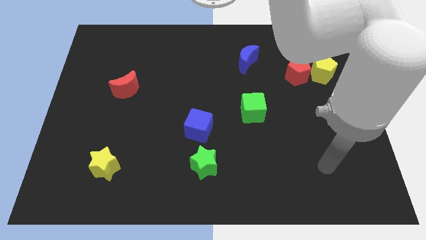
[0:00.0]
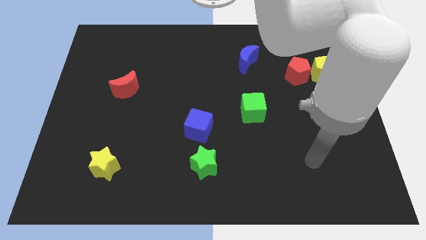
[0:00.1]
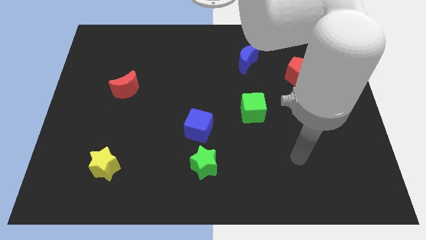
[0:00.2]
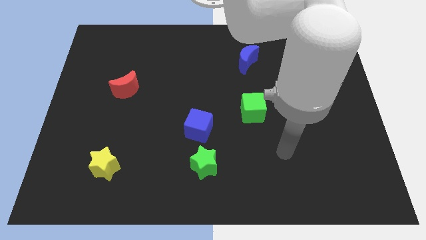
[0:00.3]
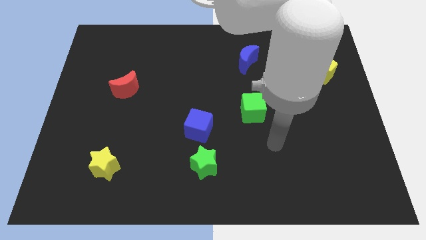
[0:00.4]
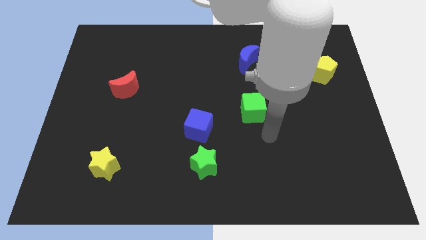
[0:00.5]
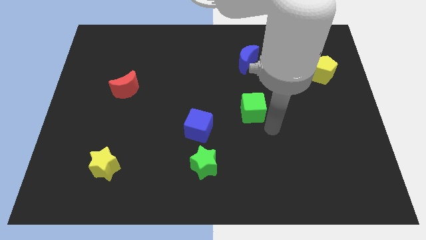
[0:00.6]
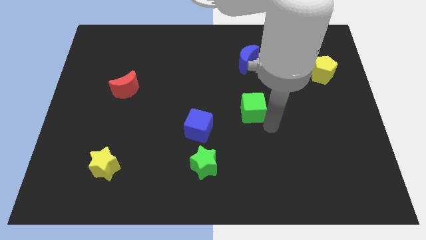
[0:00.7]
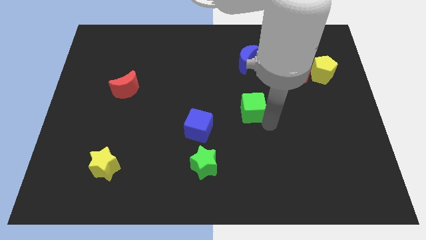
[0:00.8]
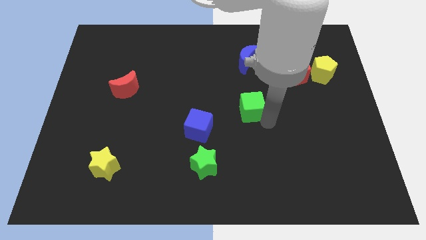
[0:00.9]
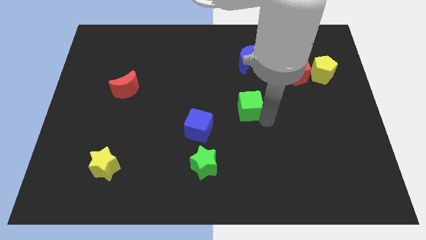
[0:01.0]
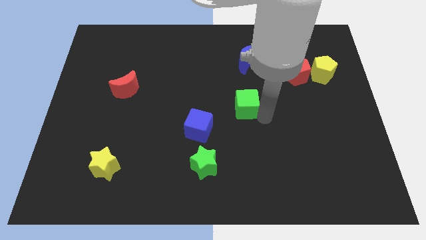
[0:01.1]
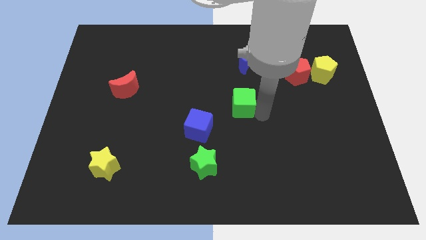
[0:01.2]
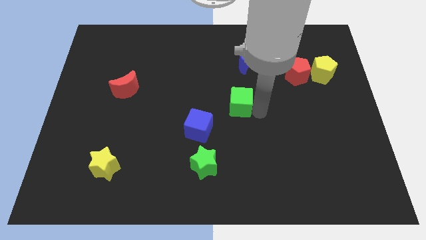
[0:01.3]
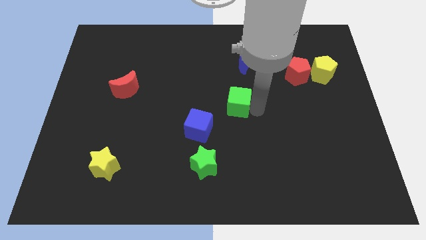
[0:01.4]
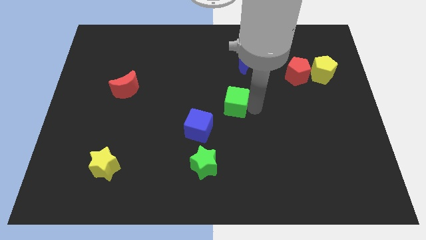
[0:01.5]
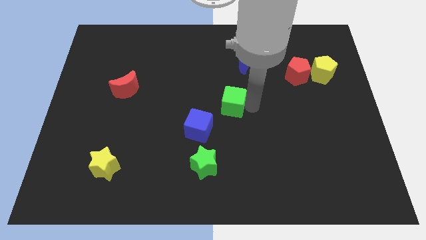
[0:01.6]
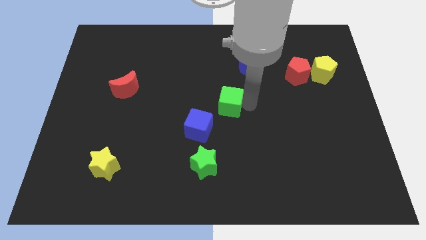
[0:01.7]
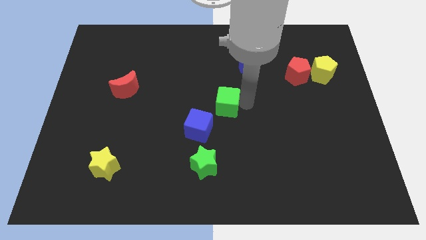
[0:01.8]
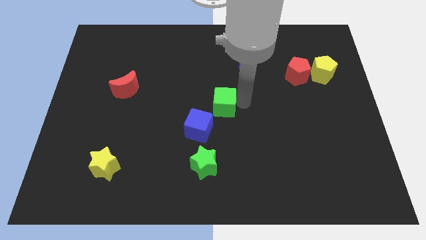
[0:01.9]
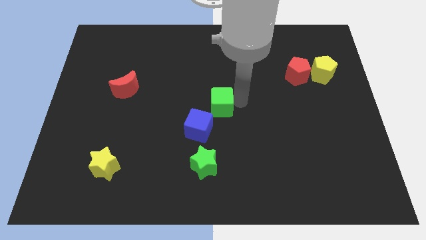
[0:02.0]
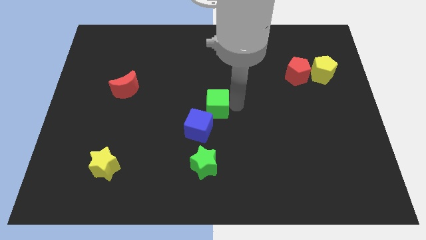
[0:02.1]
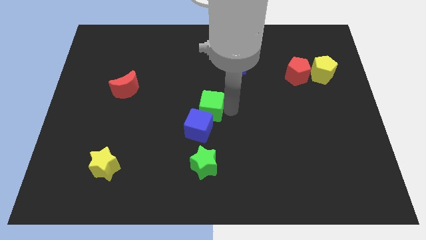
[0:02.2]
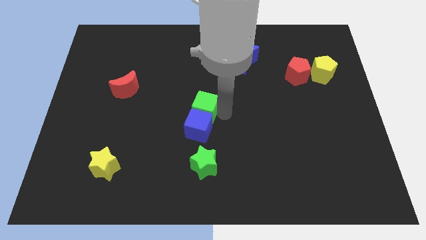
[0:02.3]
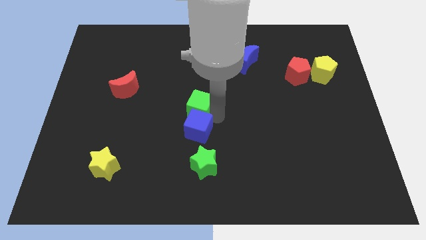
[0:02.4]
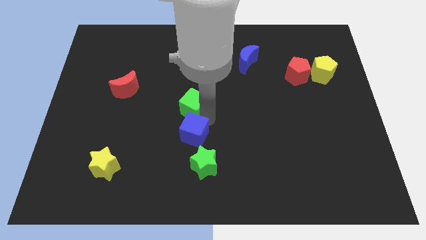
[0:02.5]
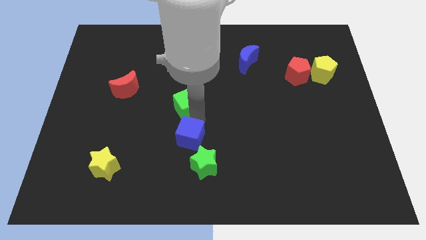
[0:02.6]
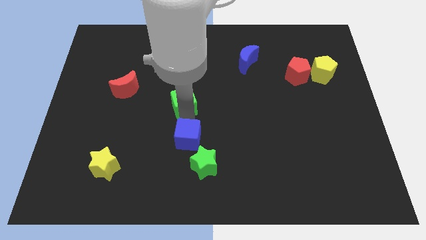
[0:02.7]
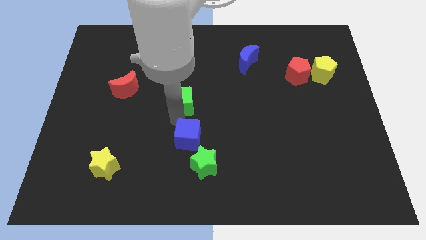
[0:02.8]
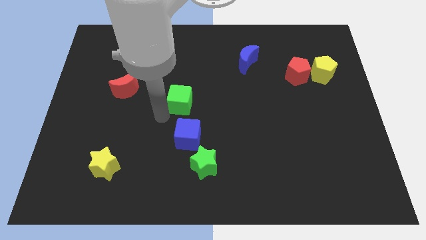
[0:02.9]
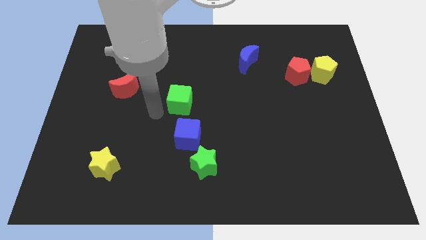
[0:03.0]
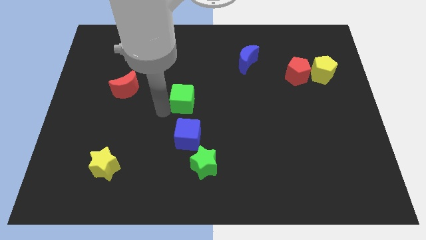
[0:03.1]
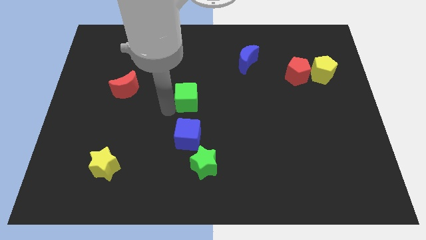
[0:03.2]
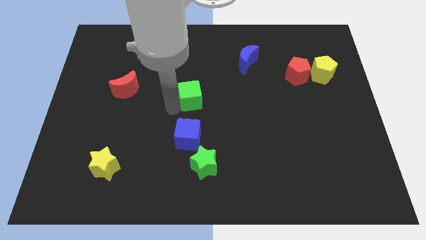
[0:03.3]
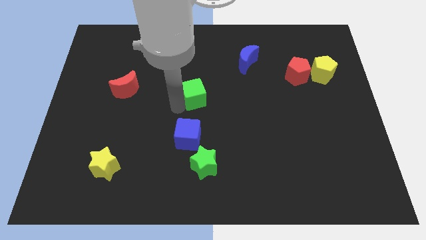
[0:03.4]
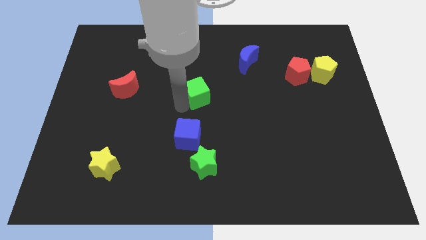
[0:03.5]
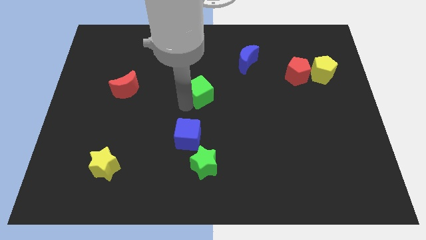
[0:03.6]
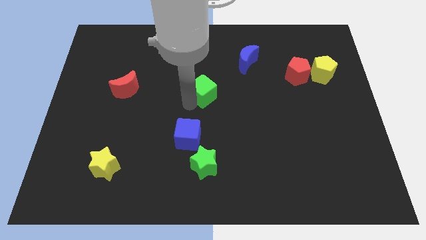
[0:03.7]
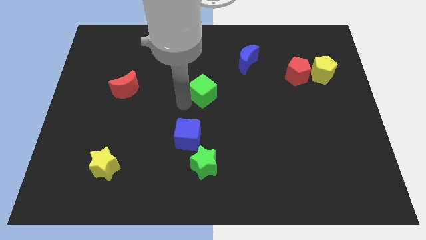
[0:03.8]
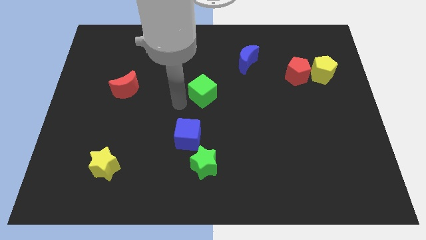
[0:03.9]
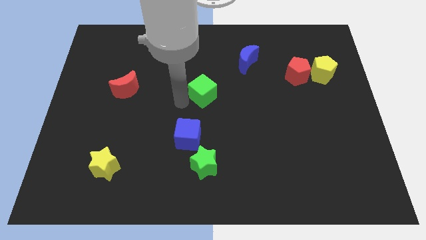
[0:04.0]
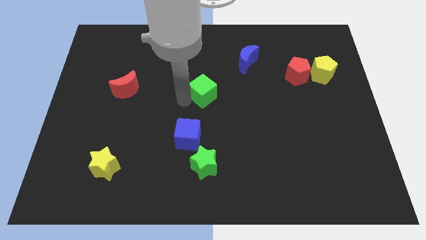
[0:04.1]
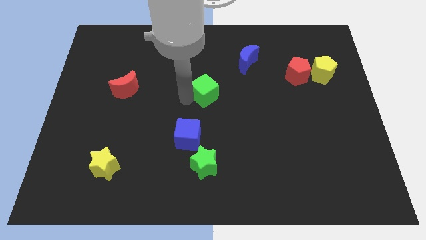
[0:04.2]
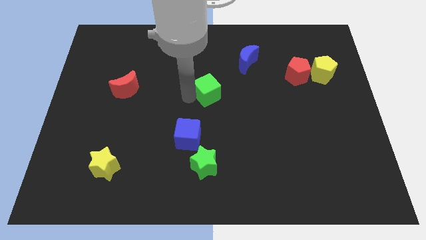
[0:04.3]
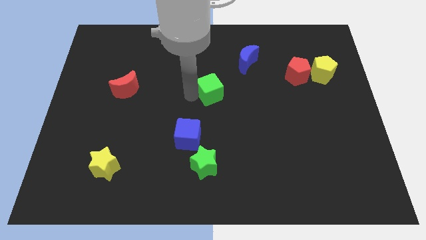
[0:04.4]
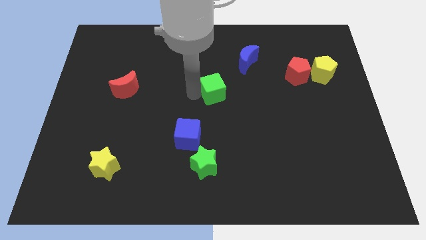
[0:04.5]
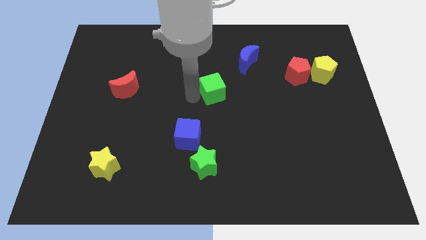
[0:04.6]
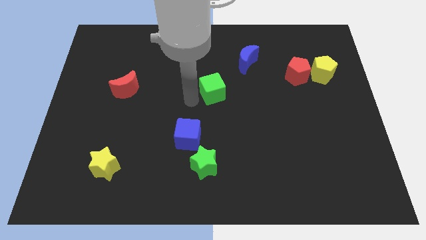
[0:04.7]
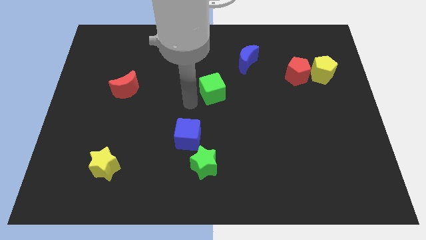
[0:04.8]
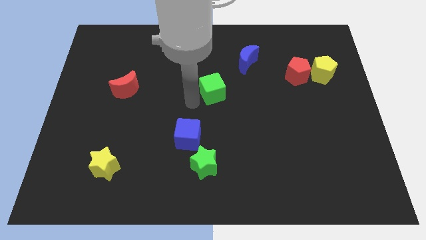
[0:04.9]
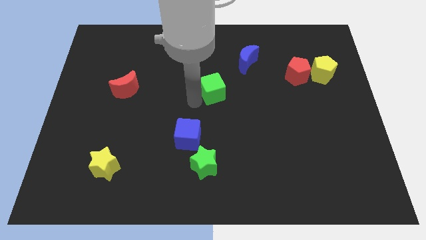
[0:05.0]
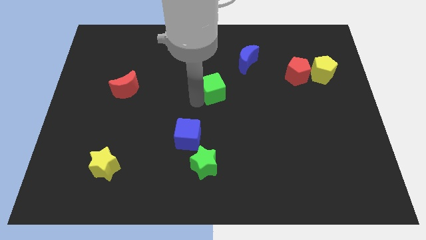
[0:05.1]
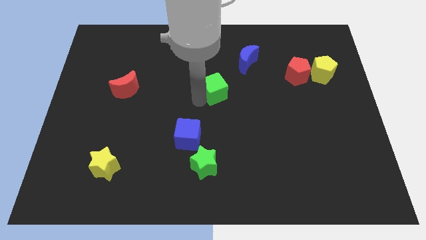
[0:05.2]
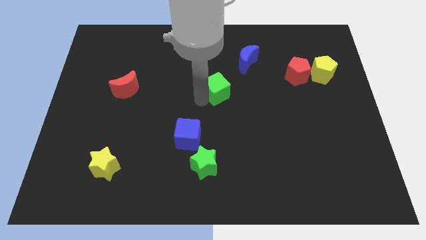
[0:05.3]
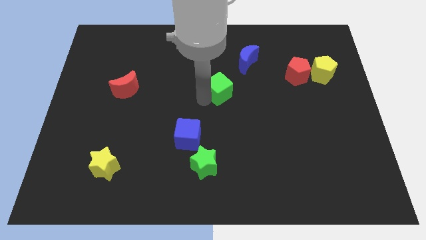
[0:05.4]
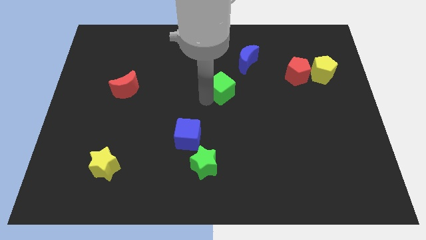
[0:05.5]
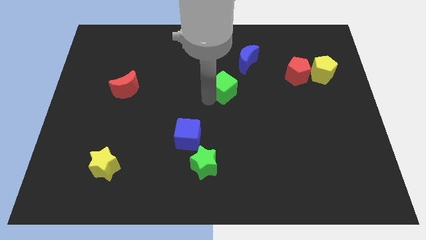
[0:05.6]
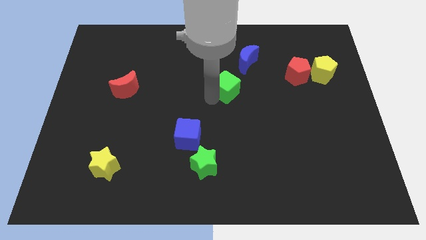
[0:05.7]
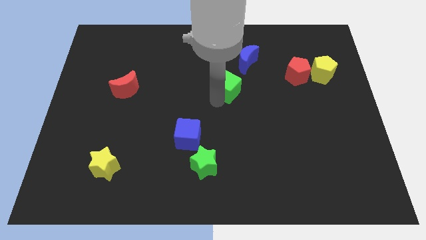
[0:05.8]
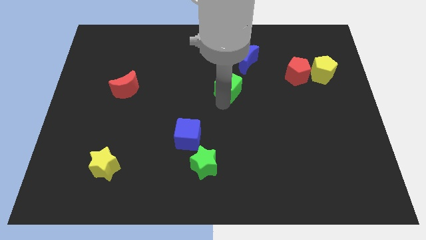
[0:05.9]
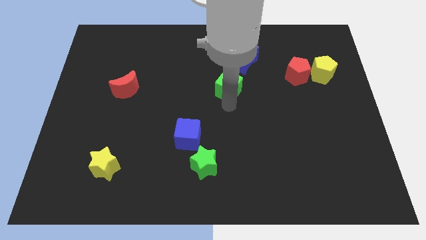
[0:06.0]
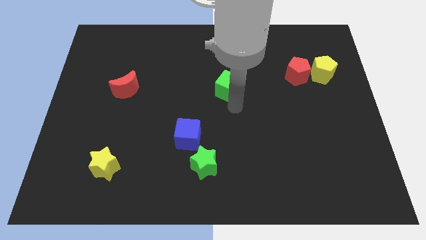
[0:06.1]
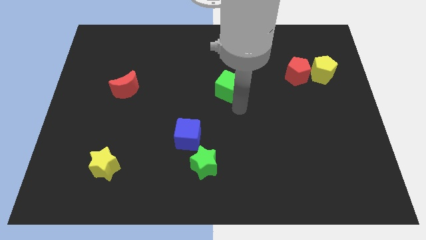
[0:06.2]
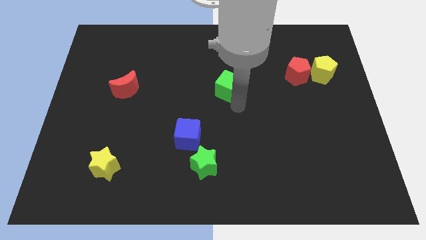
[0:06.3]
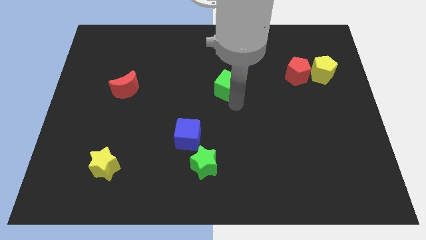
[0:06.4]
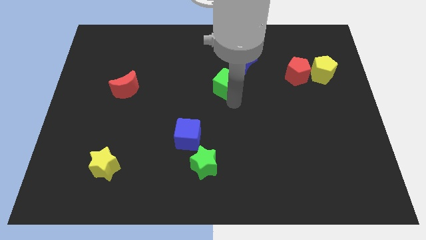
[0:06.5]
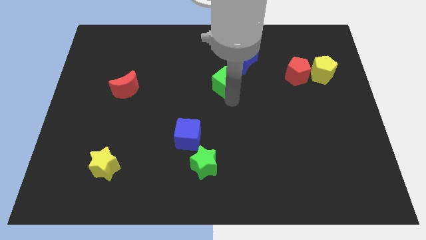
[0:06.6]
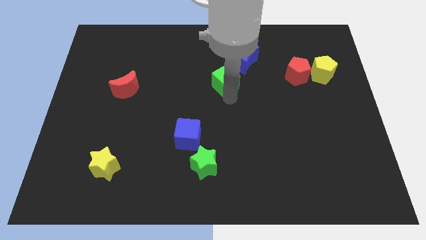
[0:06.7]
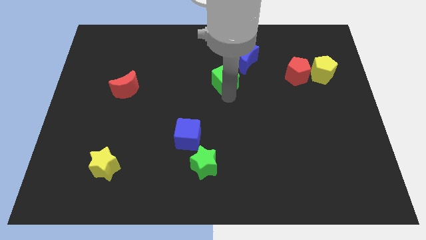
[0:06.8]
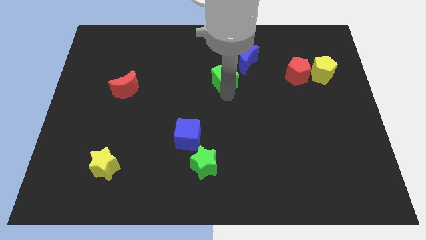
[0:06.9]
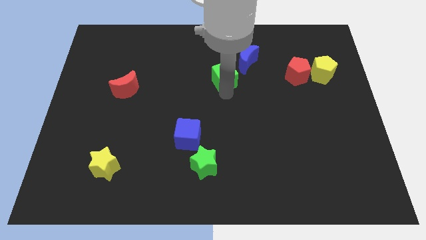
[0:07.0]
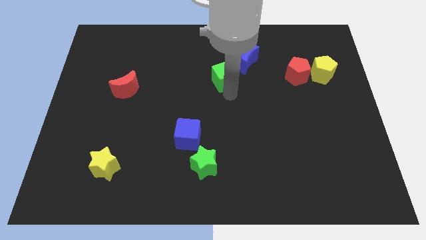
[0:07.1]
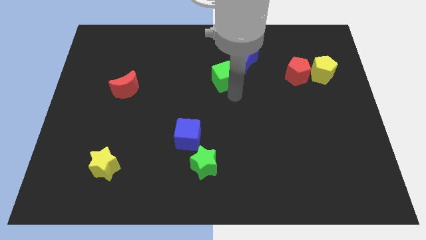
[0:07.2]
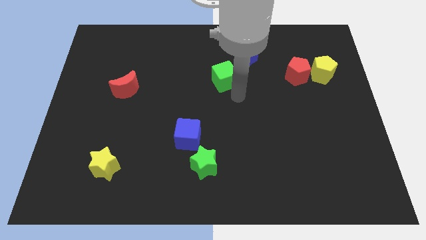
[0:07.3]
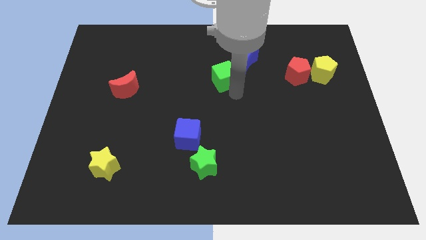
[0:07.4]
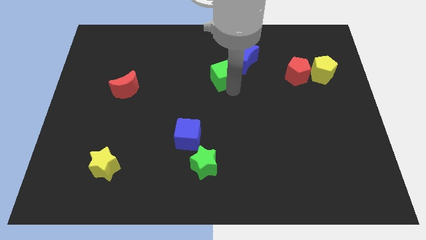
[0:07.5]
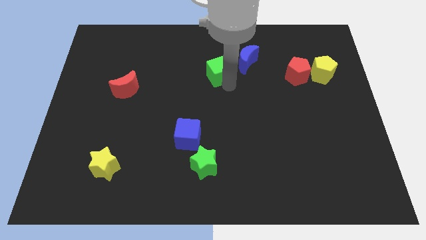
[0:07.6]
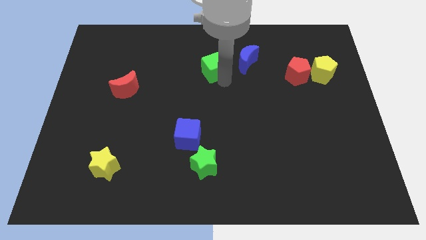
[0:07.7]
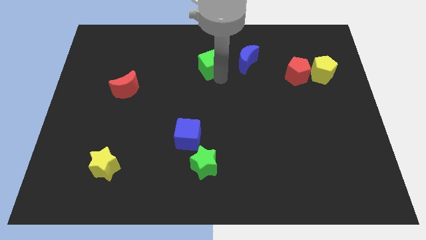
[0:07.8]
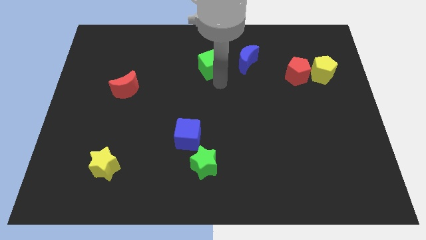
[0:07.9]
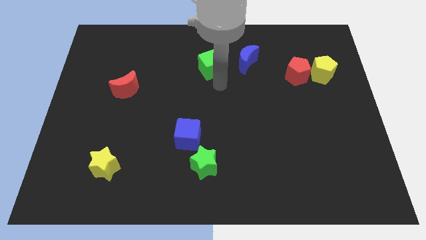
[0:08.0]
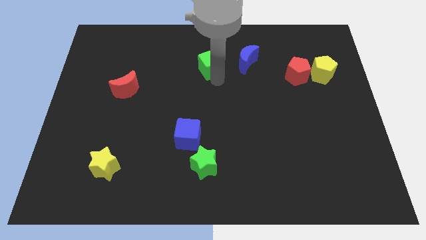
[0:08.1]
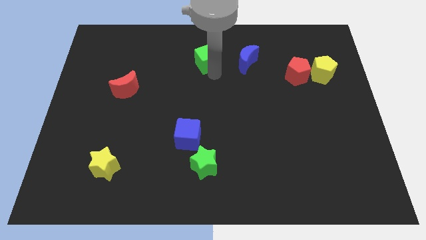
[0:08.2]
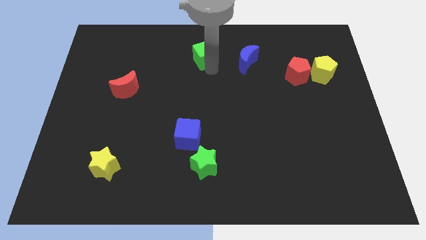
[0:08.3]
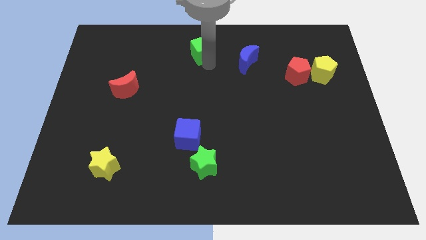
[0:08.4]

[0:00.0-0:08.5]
push the green cube to the top
